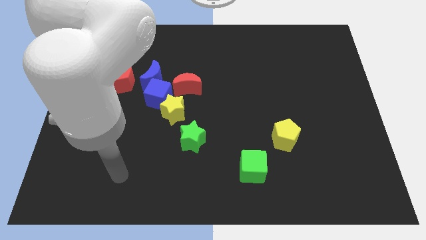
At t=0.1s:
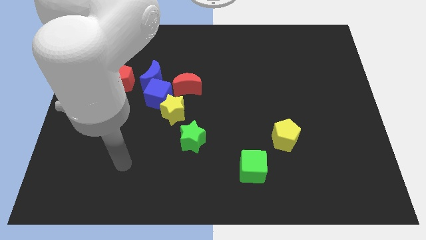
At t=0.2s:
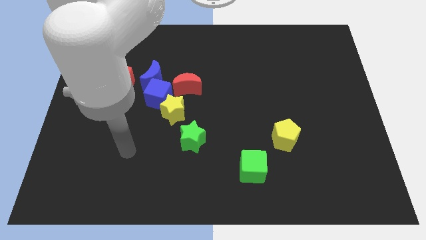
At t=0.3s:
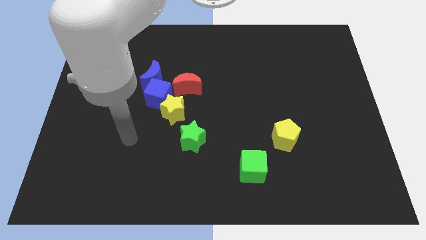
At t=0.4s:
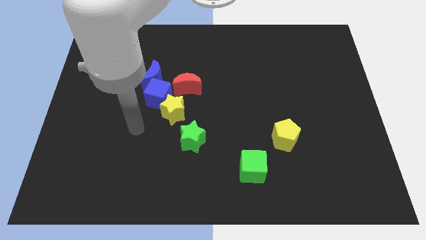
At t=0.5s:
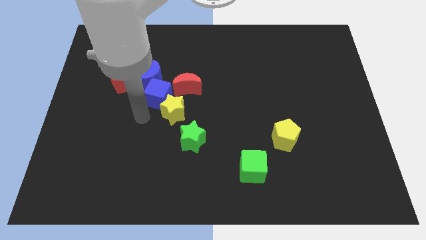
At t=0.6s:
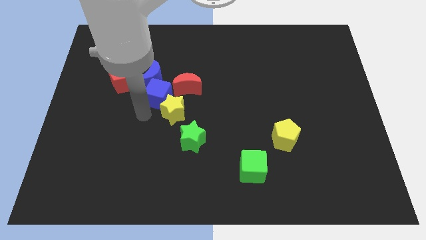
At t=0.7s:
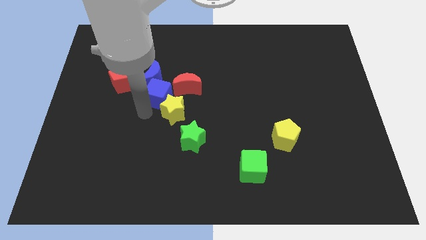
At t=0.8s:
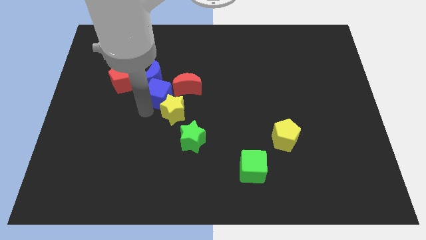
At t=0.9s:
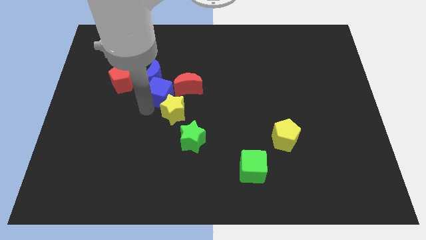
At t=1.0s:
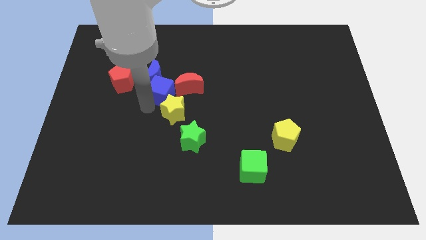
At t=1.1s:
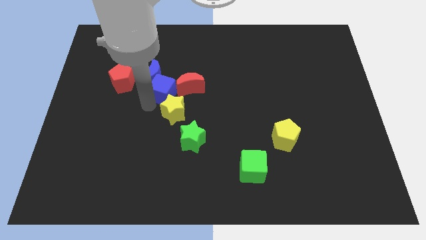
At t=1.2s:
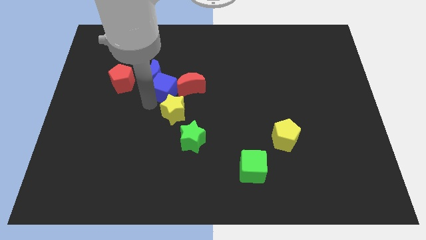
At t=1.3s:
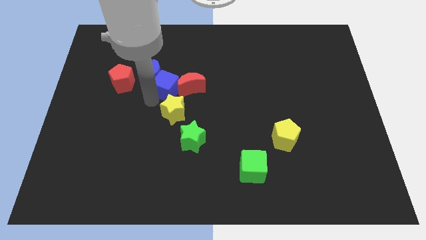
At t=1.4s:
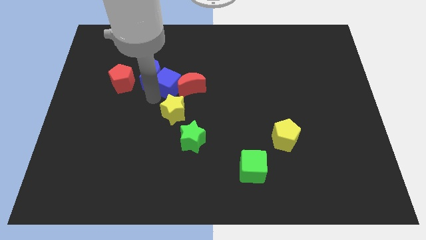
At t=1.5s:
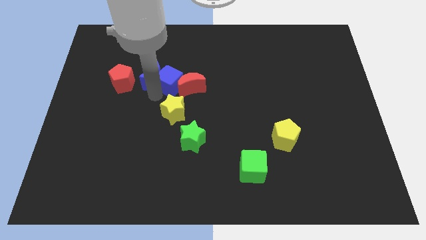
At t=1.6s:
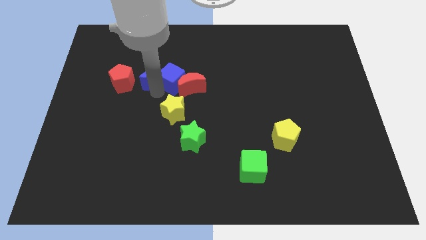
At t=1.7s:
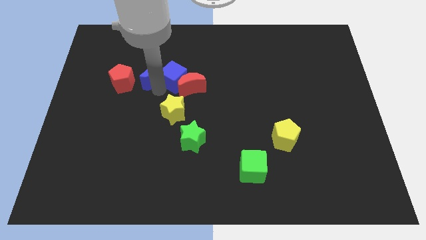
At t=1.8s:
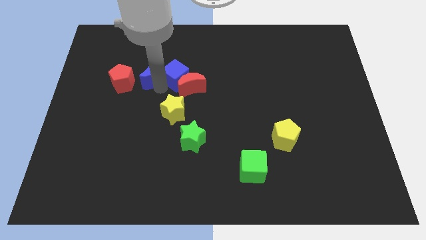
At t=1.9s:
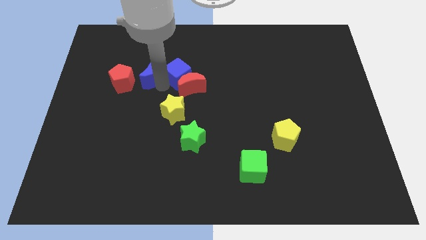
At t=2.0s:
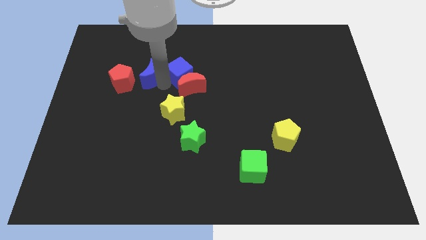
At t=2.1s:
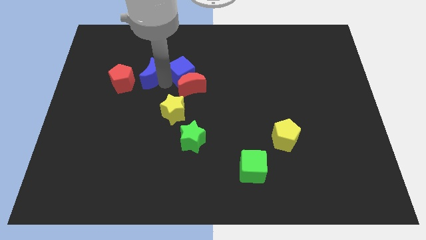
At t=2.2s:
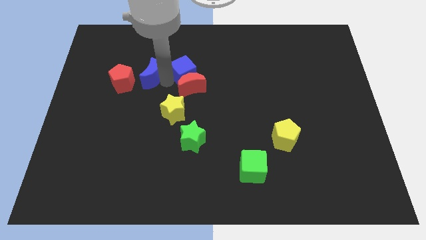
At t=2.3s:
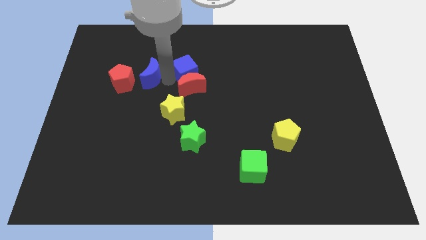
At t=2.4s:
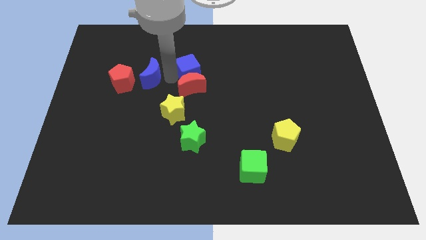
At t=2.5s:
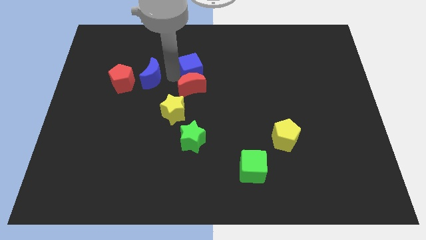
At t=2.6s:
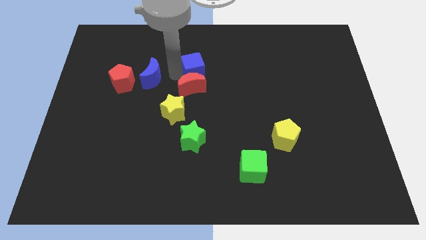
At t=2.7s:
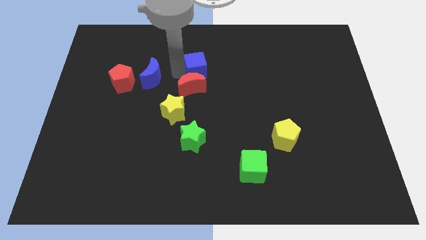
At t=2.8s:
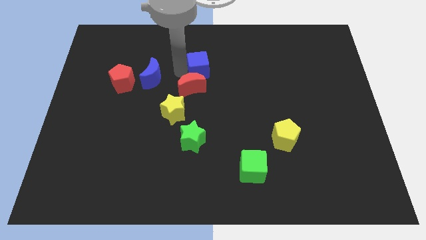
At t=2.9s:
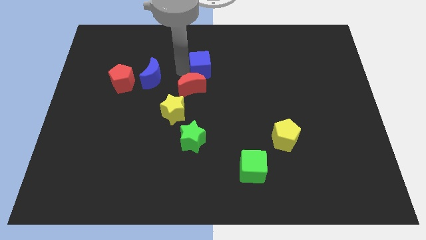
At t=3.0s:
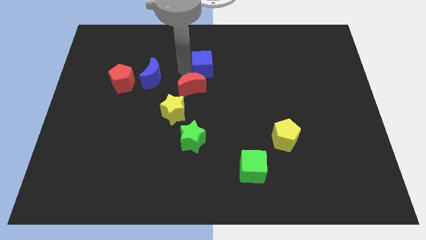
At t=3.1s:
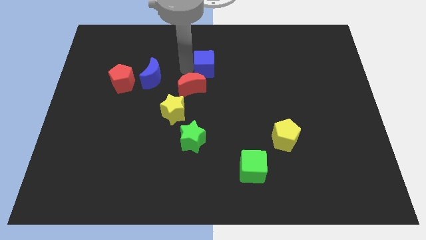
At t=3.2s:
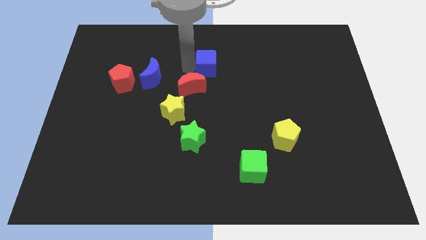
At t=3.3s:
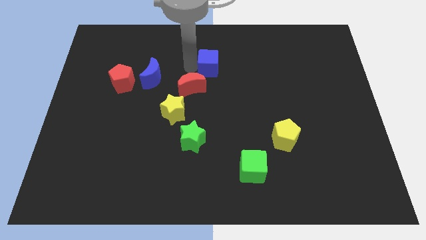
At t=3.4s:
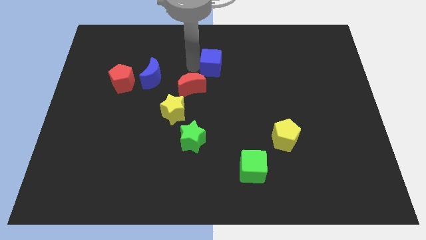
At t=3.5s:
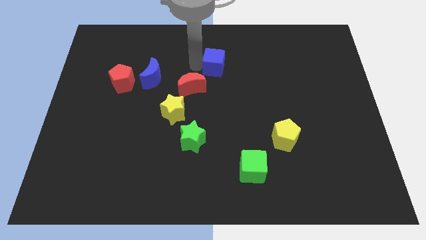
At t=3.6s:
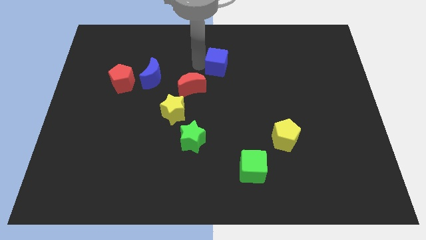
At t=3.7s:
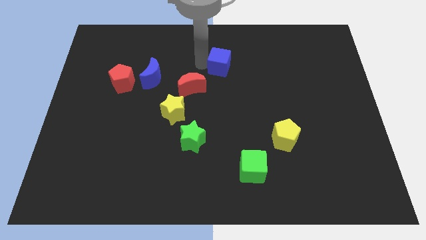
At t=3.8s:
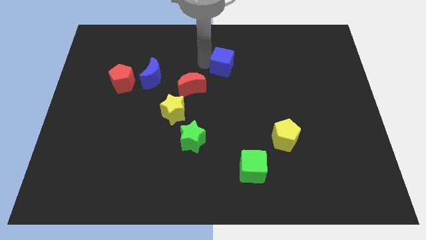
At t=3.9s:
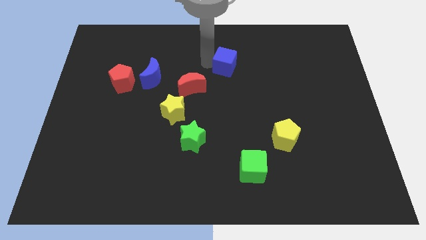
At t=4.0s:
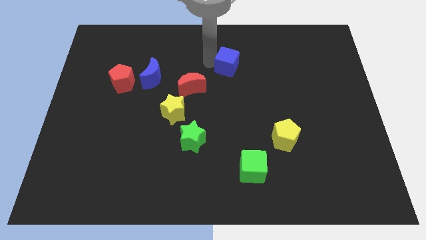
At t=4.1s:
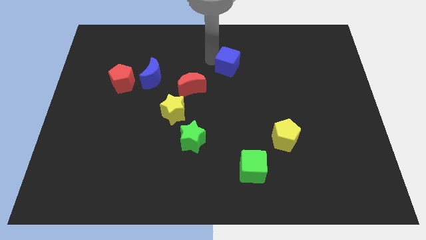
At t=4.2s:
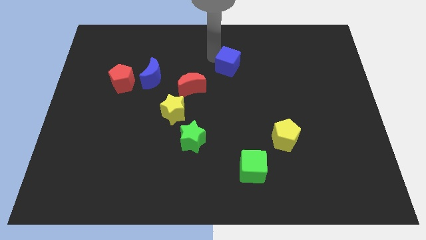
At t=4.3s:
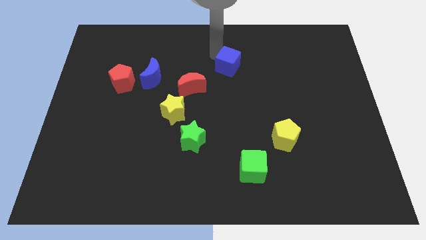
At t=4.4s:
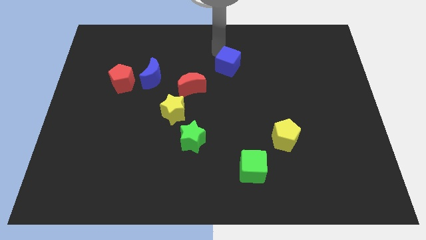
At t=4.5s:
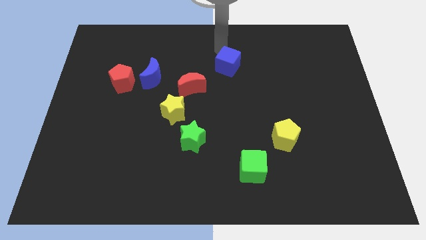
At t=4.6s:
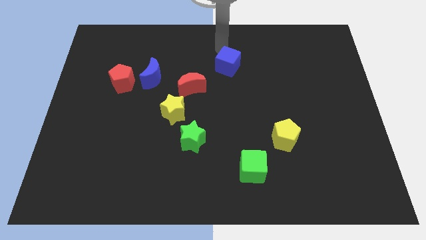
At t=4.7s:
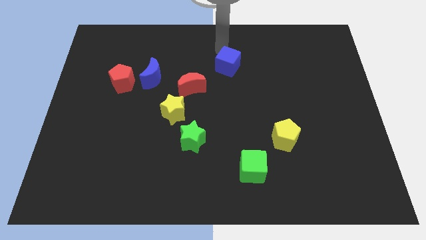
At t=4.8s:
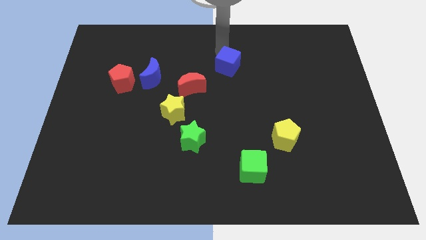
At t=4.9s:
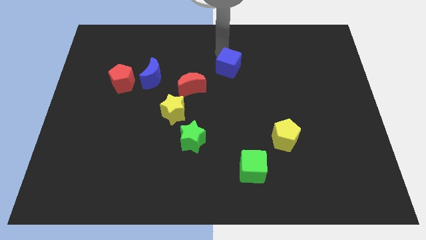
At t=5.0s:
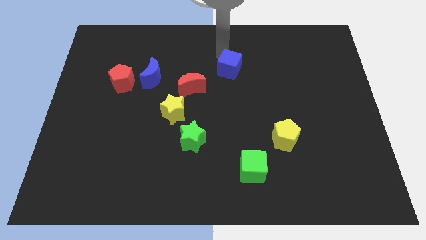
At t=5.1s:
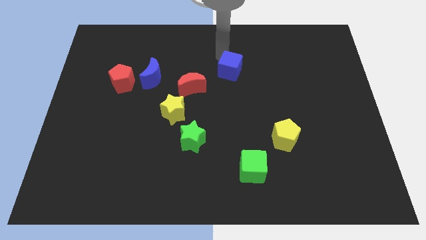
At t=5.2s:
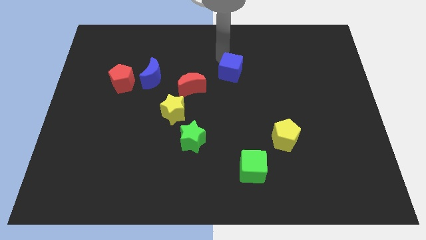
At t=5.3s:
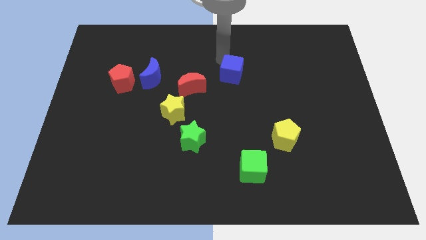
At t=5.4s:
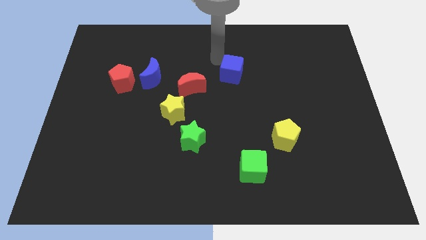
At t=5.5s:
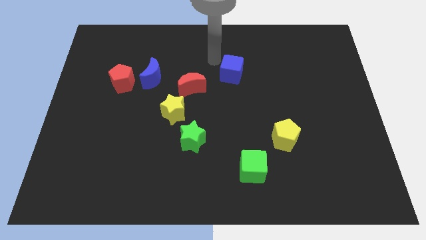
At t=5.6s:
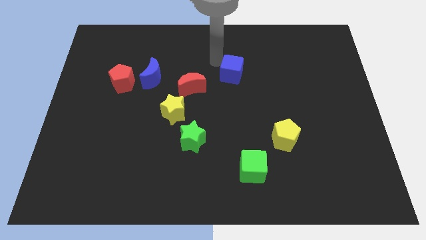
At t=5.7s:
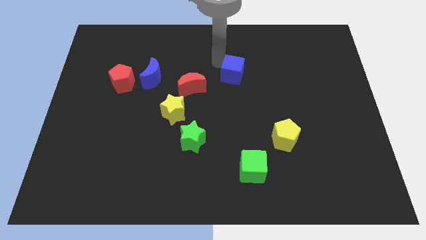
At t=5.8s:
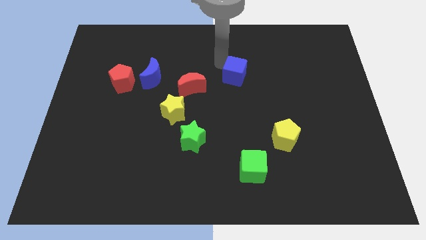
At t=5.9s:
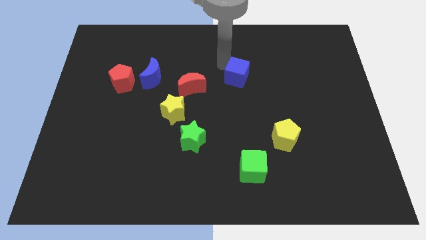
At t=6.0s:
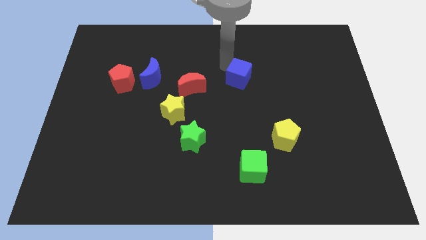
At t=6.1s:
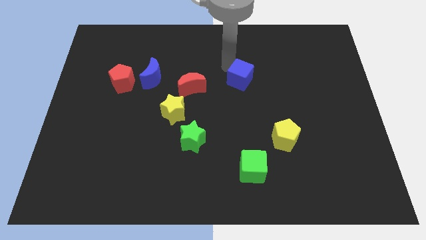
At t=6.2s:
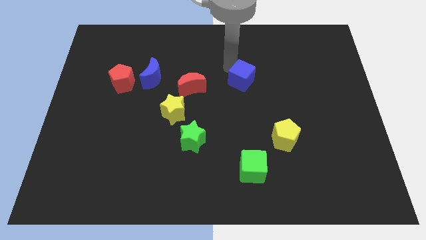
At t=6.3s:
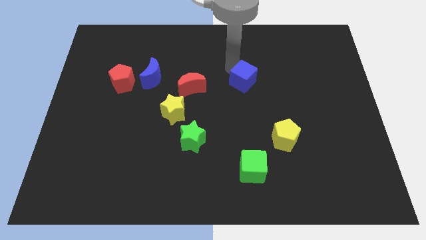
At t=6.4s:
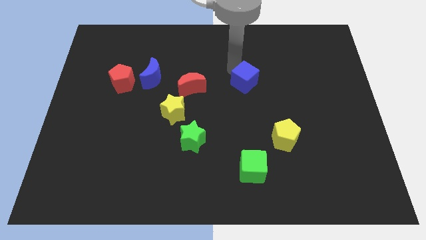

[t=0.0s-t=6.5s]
slide the blue cube to the right

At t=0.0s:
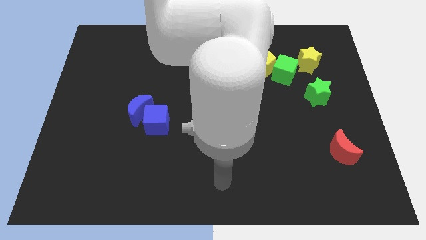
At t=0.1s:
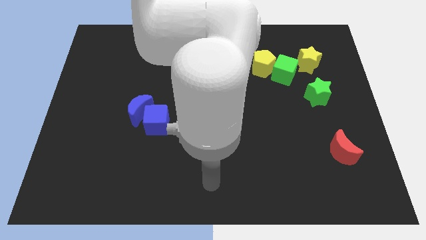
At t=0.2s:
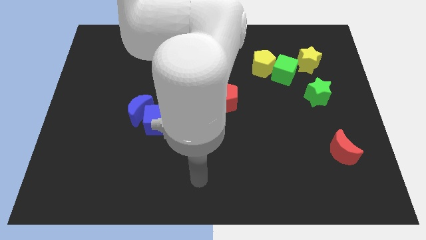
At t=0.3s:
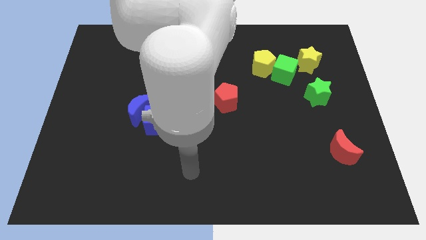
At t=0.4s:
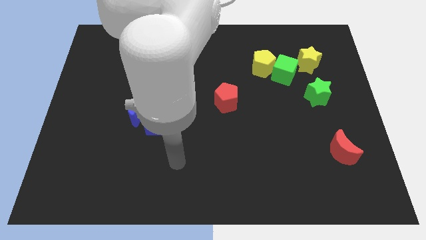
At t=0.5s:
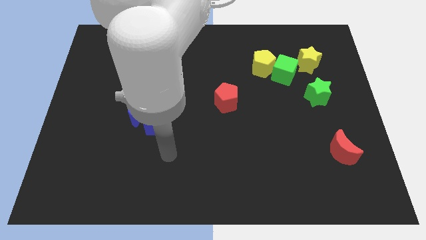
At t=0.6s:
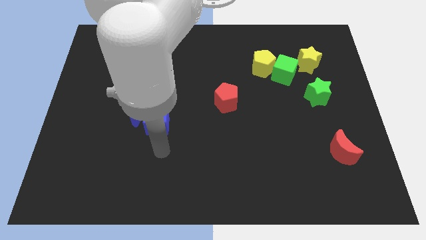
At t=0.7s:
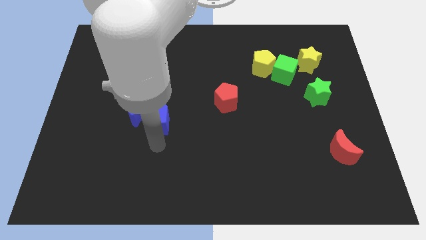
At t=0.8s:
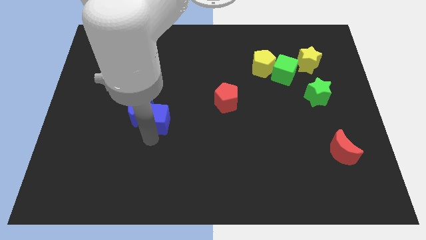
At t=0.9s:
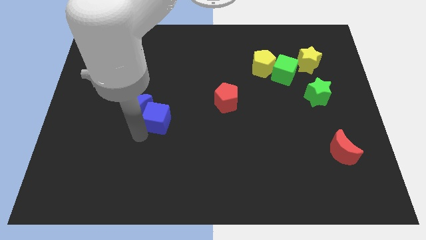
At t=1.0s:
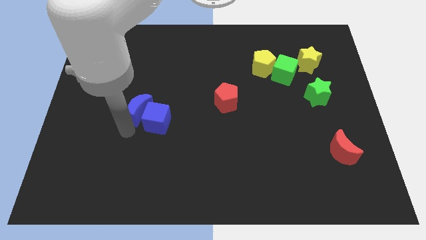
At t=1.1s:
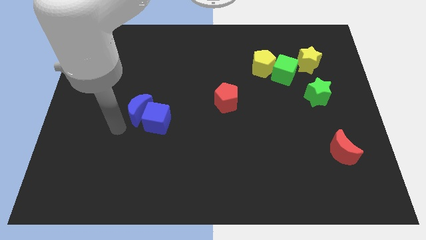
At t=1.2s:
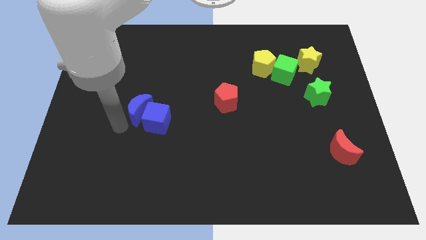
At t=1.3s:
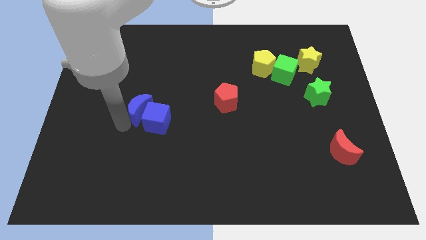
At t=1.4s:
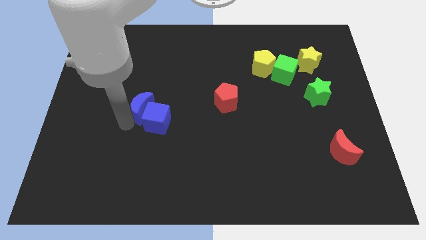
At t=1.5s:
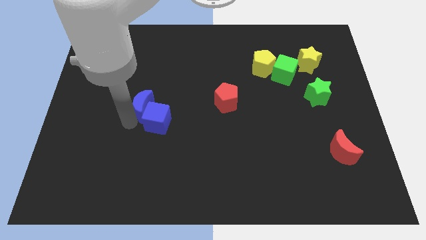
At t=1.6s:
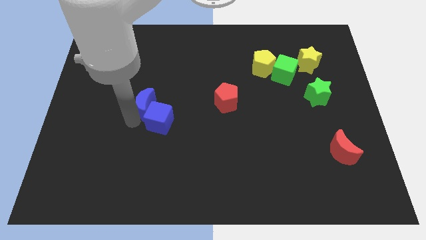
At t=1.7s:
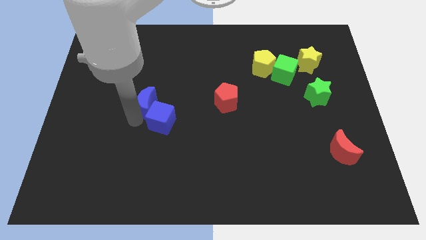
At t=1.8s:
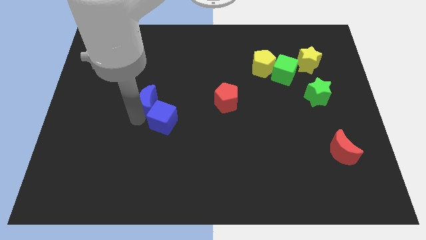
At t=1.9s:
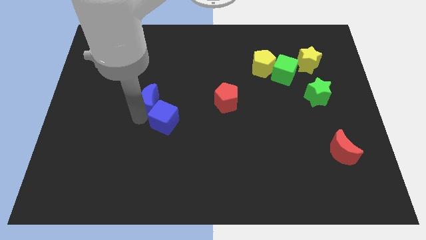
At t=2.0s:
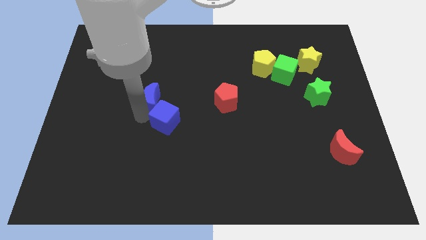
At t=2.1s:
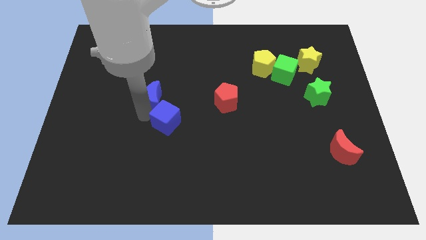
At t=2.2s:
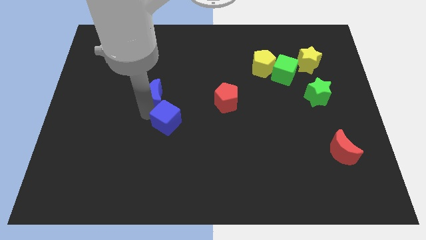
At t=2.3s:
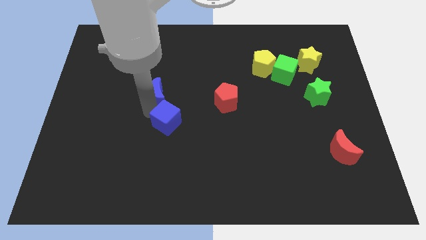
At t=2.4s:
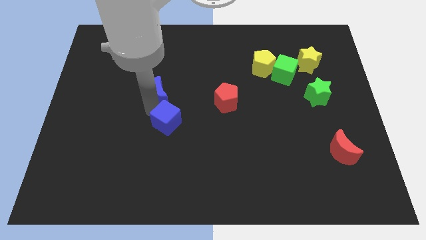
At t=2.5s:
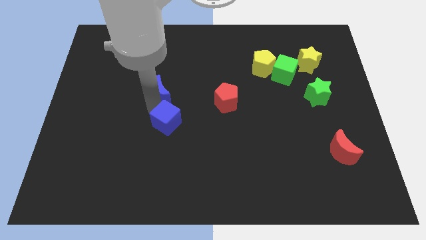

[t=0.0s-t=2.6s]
slide the blue moon a bit up and then to the right
